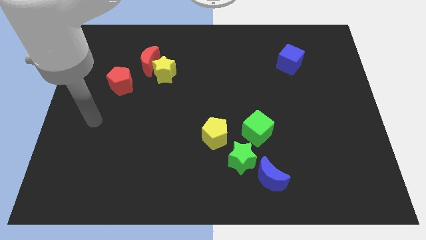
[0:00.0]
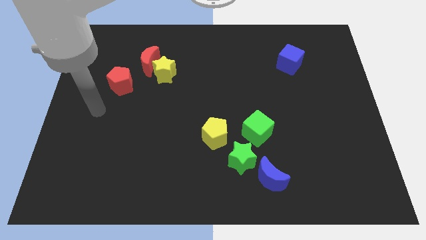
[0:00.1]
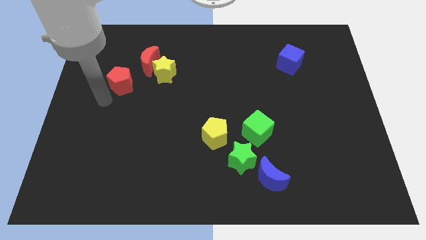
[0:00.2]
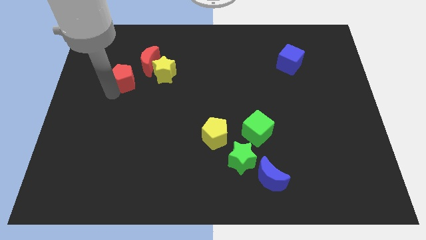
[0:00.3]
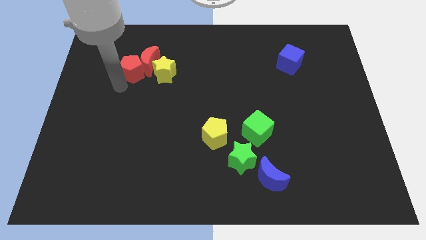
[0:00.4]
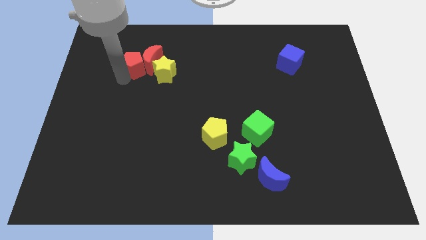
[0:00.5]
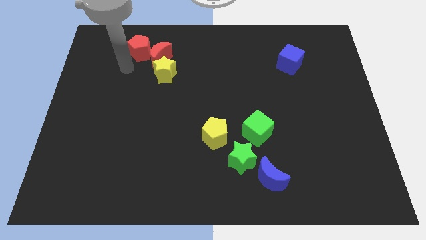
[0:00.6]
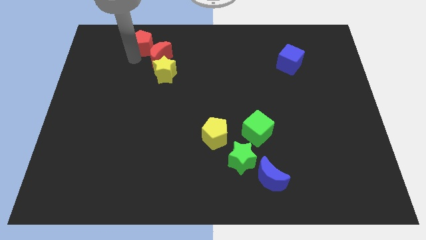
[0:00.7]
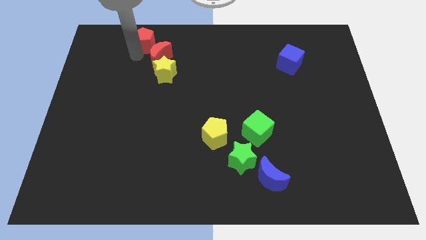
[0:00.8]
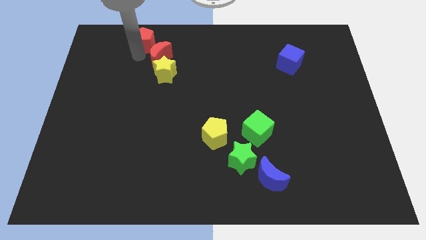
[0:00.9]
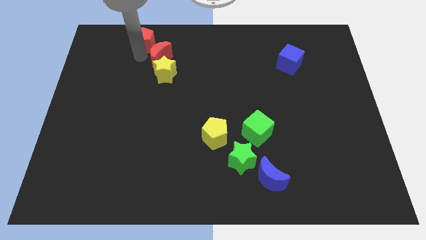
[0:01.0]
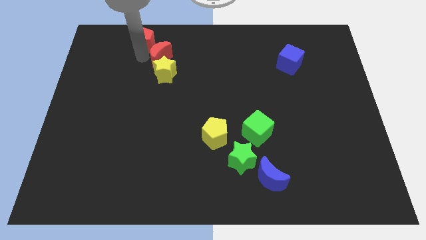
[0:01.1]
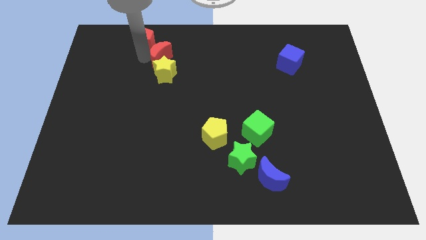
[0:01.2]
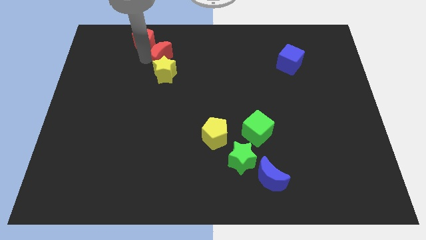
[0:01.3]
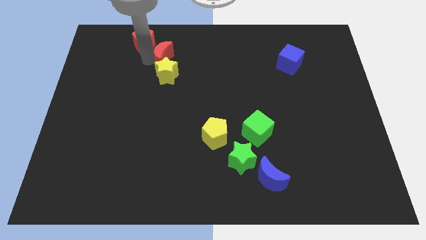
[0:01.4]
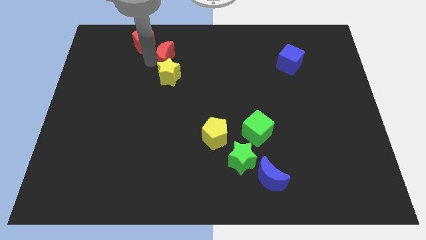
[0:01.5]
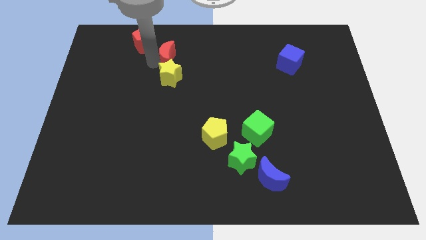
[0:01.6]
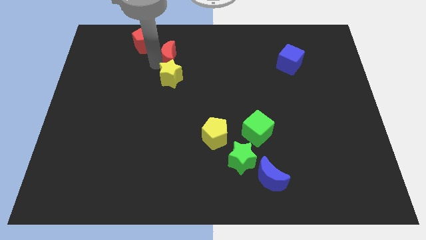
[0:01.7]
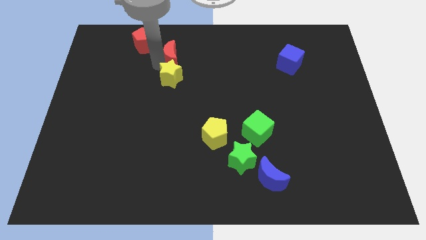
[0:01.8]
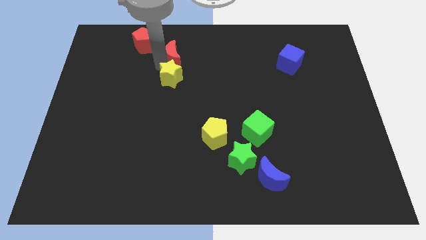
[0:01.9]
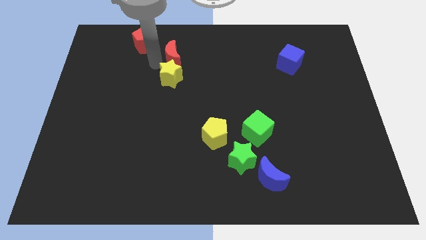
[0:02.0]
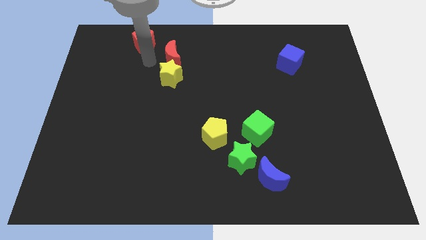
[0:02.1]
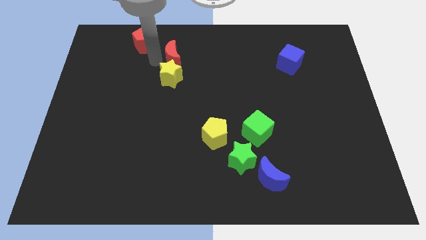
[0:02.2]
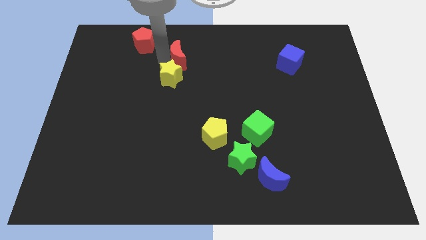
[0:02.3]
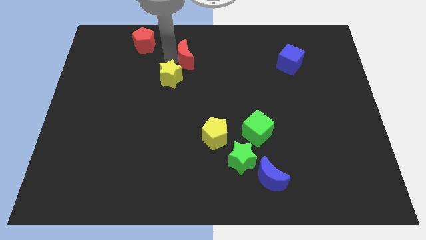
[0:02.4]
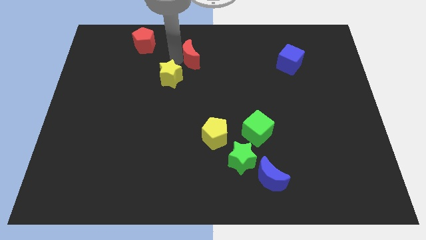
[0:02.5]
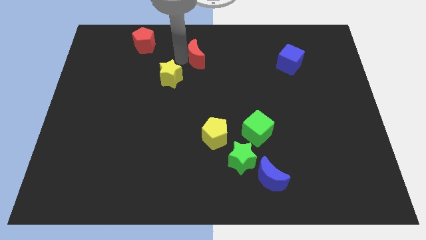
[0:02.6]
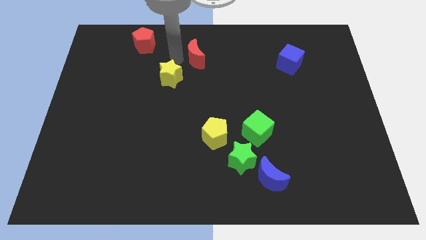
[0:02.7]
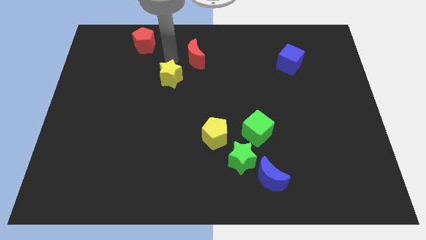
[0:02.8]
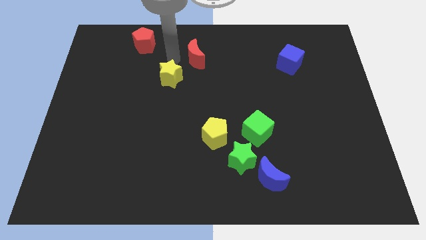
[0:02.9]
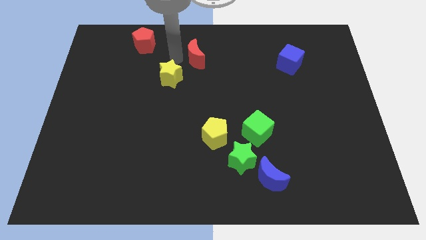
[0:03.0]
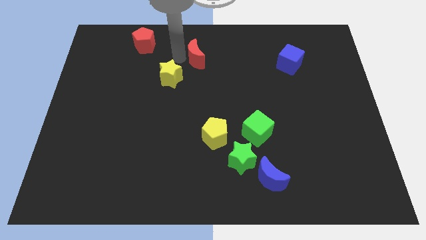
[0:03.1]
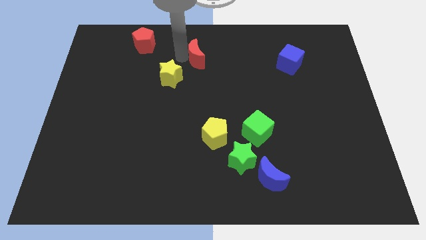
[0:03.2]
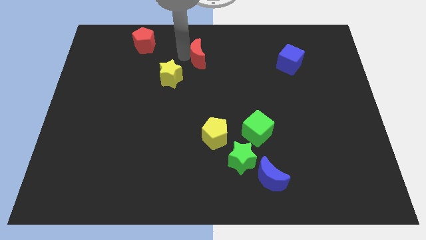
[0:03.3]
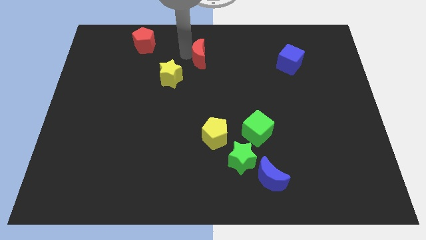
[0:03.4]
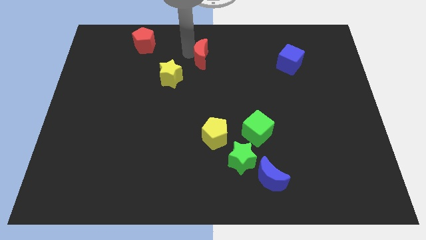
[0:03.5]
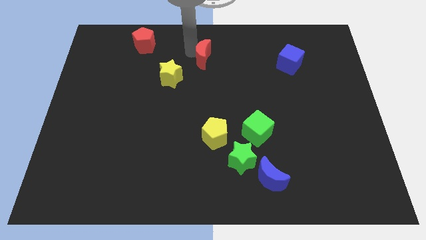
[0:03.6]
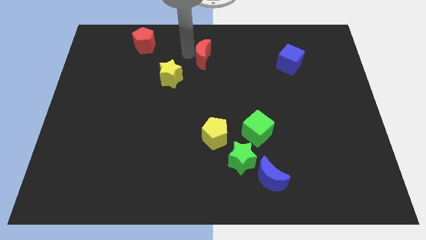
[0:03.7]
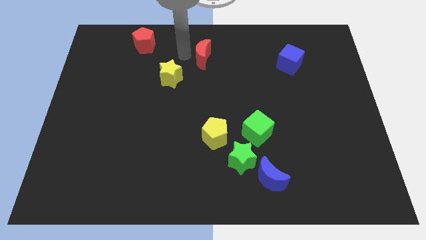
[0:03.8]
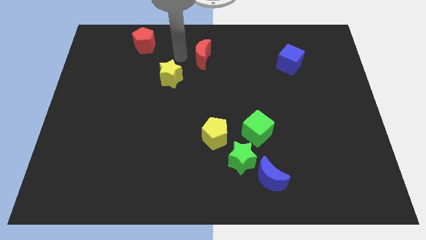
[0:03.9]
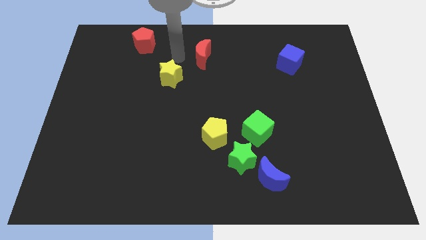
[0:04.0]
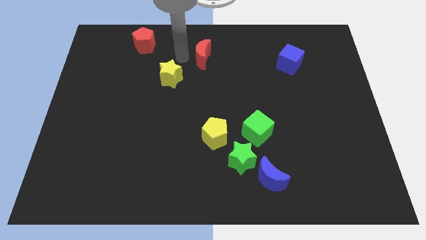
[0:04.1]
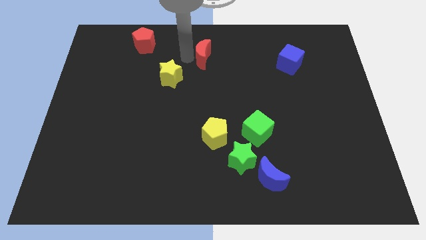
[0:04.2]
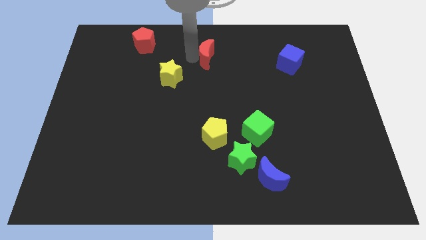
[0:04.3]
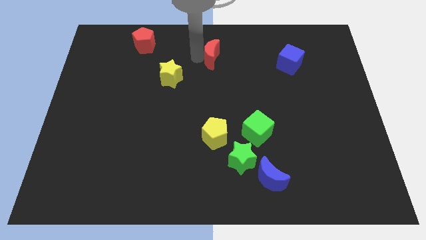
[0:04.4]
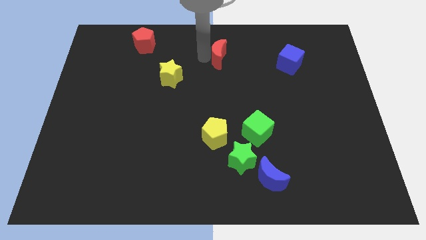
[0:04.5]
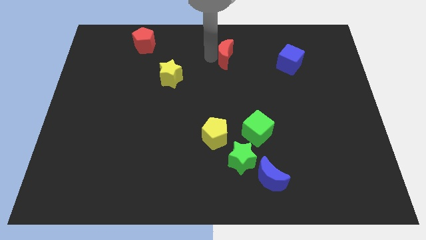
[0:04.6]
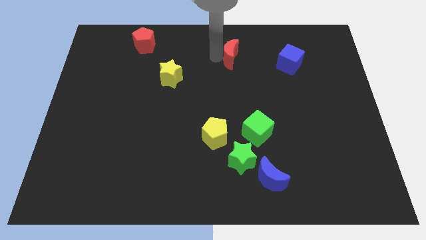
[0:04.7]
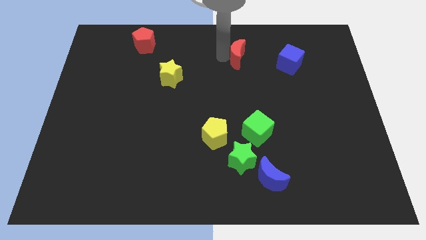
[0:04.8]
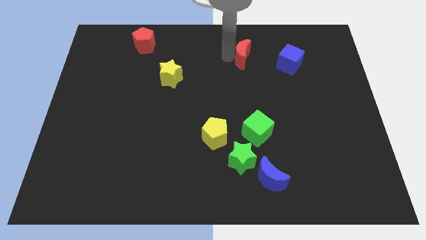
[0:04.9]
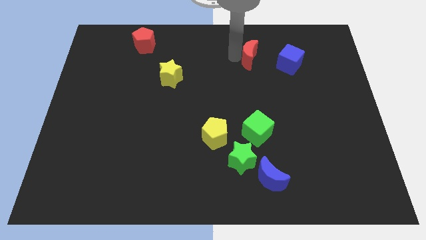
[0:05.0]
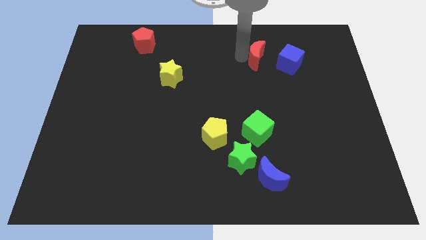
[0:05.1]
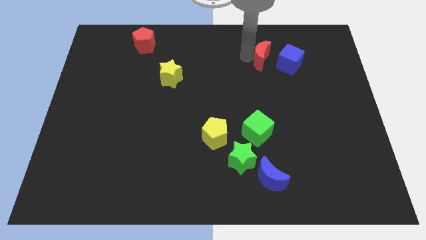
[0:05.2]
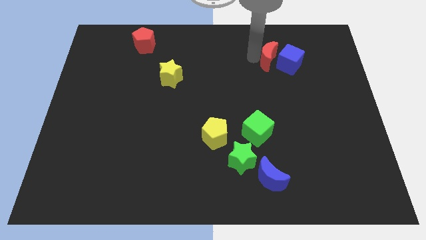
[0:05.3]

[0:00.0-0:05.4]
put the red moon to the blue cube

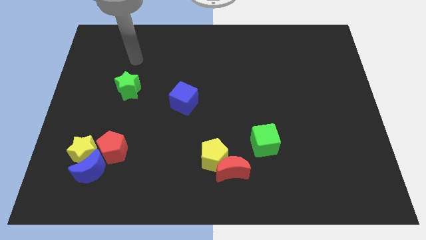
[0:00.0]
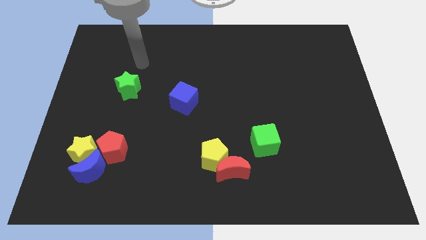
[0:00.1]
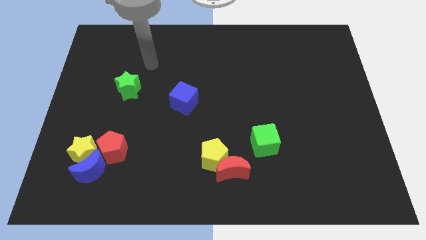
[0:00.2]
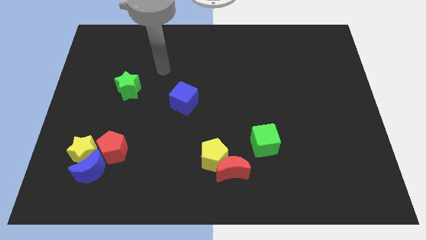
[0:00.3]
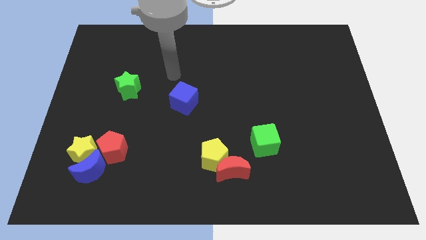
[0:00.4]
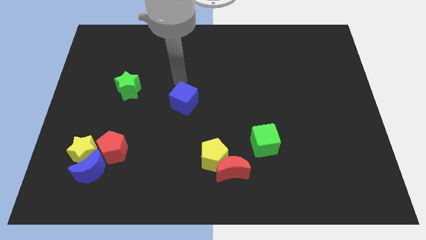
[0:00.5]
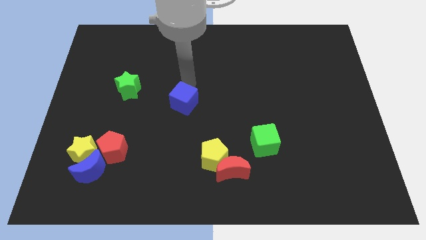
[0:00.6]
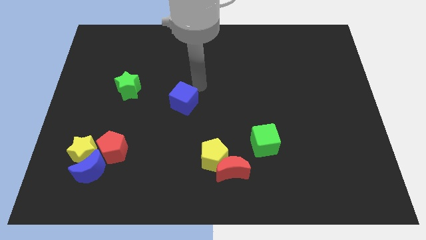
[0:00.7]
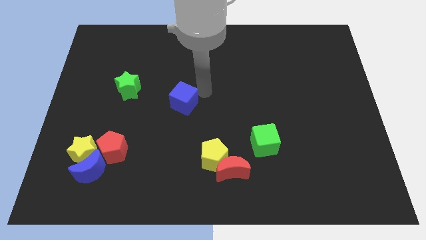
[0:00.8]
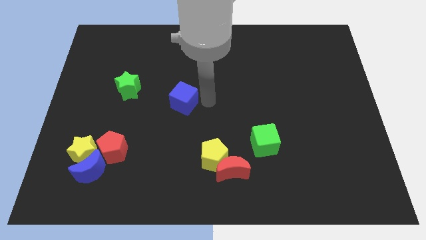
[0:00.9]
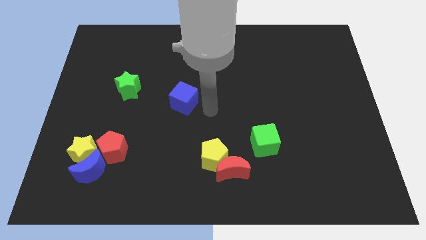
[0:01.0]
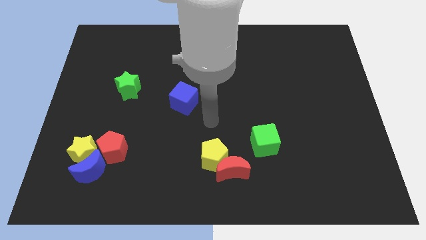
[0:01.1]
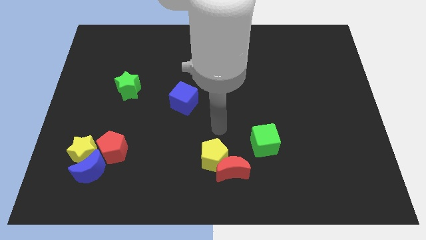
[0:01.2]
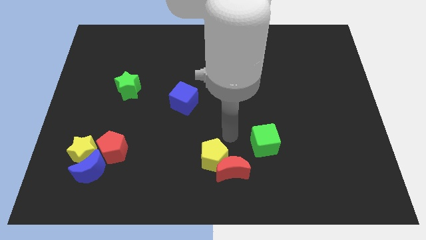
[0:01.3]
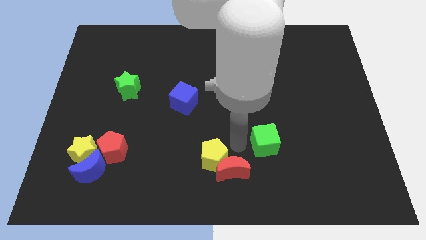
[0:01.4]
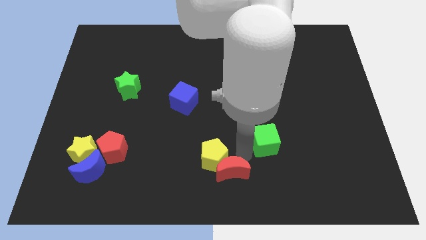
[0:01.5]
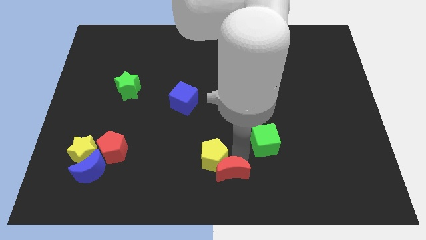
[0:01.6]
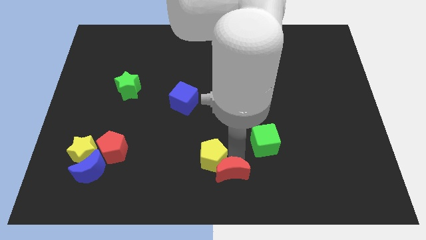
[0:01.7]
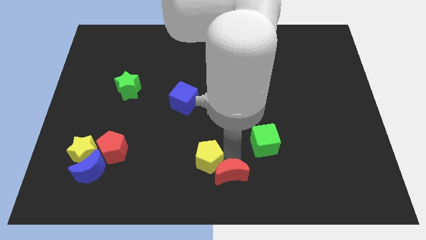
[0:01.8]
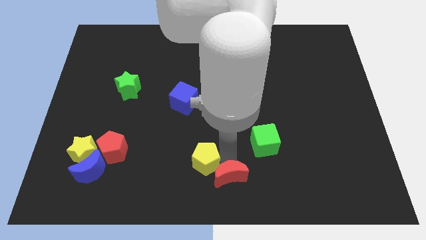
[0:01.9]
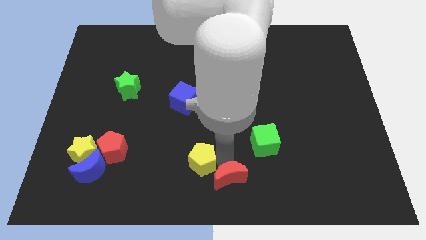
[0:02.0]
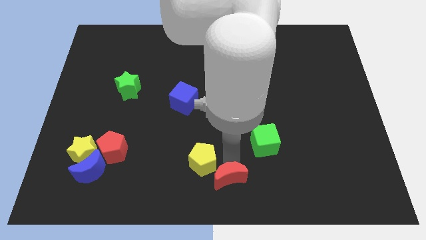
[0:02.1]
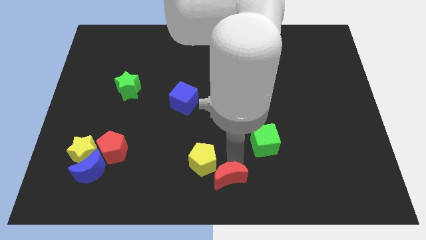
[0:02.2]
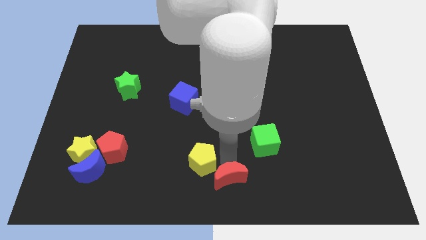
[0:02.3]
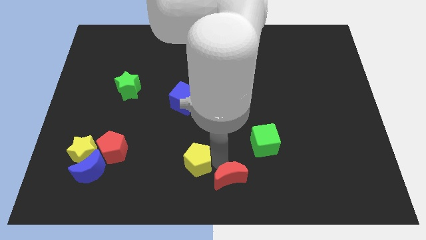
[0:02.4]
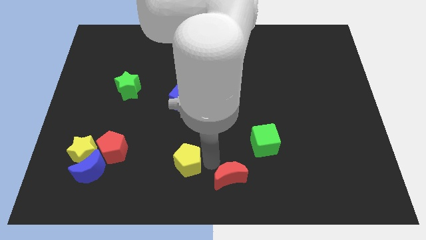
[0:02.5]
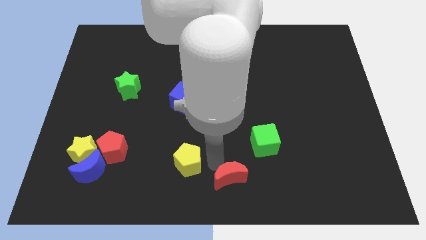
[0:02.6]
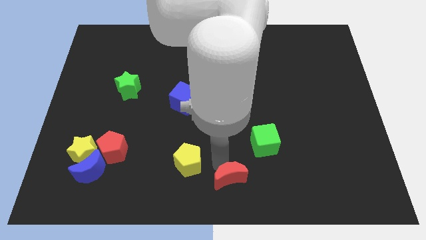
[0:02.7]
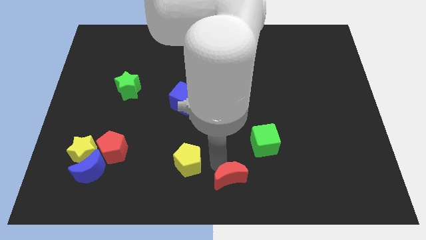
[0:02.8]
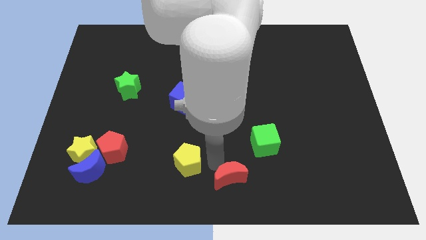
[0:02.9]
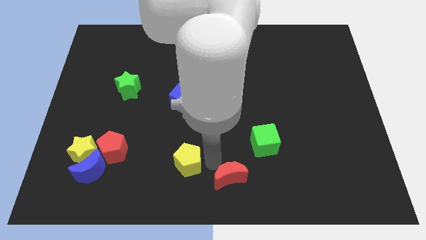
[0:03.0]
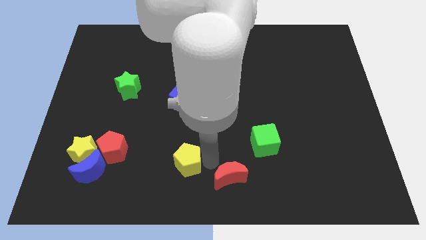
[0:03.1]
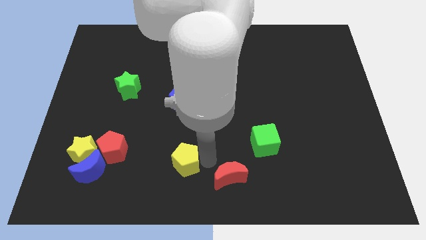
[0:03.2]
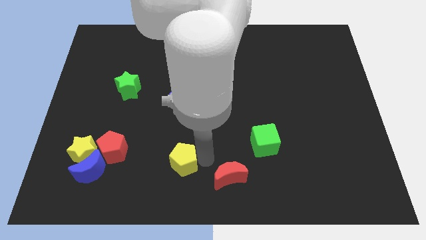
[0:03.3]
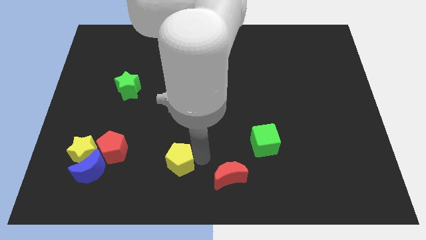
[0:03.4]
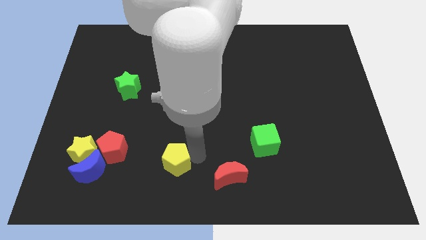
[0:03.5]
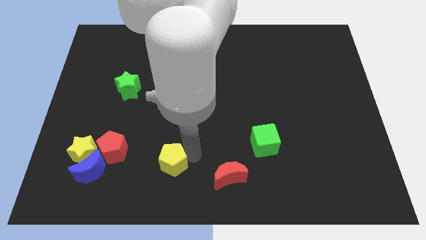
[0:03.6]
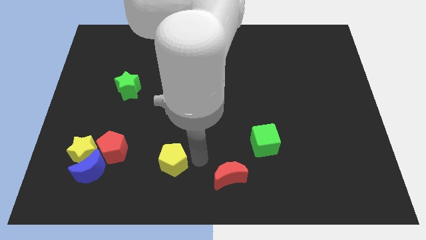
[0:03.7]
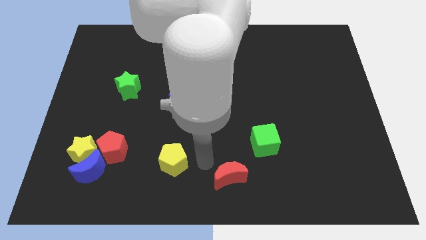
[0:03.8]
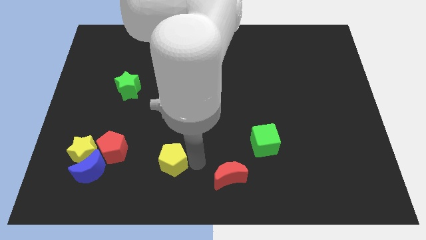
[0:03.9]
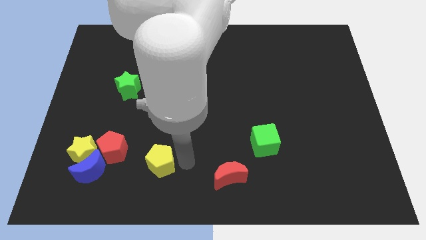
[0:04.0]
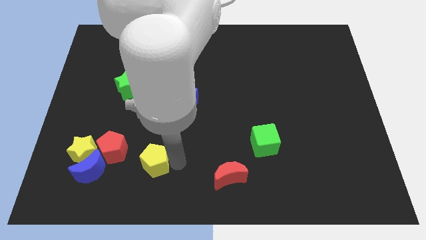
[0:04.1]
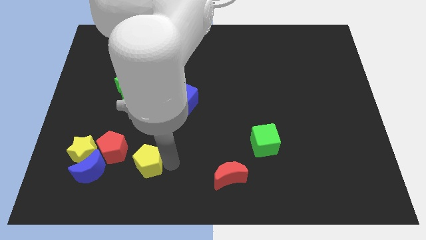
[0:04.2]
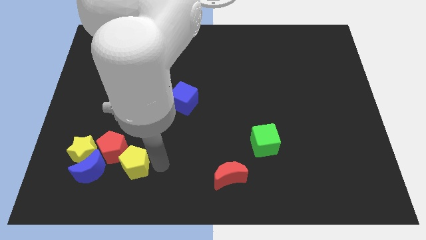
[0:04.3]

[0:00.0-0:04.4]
push the yellow pentagon close to the red pentagon
